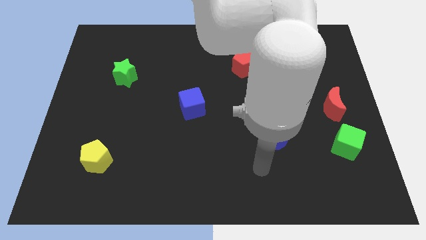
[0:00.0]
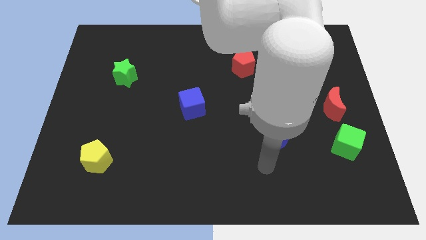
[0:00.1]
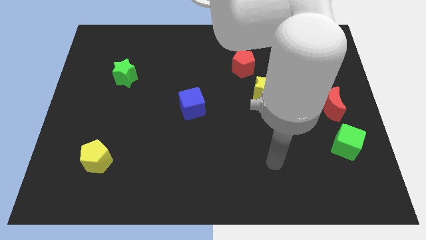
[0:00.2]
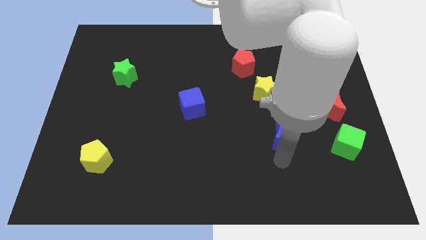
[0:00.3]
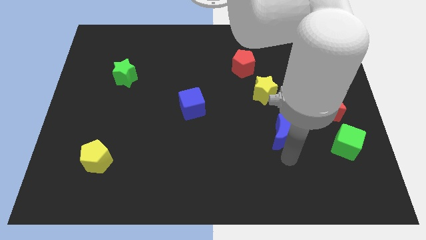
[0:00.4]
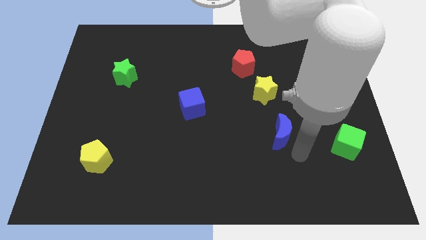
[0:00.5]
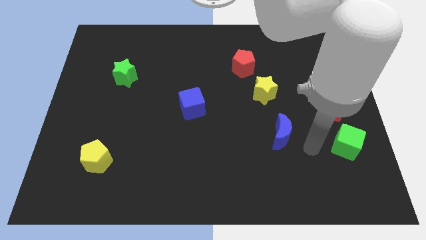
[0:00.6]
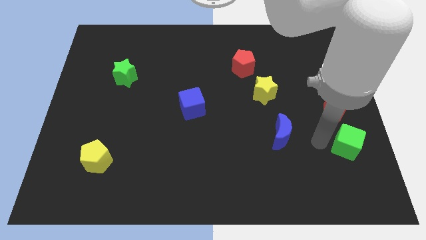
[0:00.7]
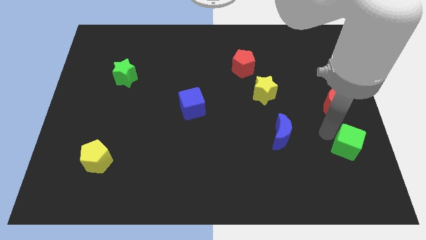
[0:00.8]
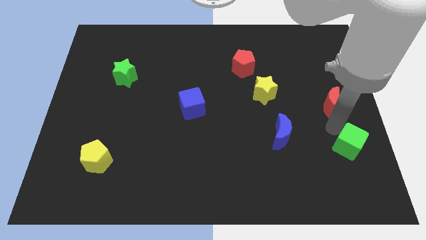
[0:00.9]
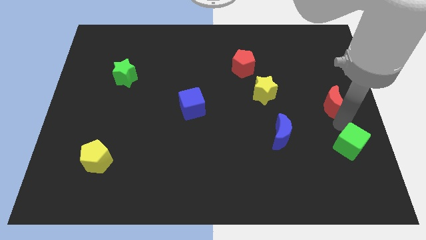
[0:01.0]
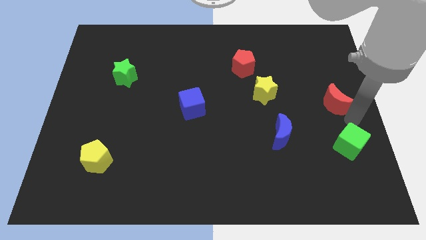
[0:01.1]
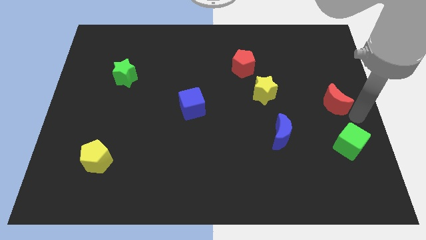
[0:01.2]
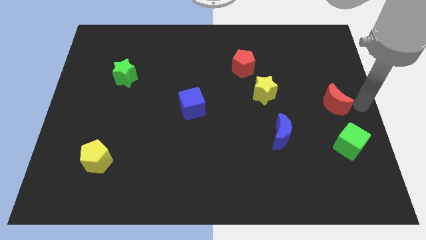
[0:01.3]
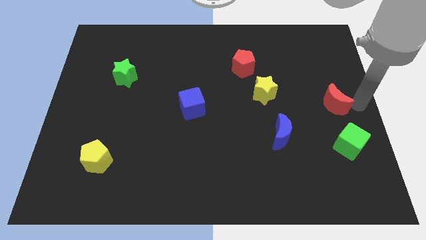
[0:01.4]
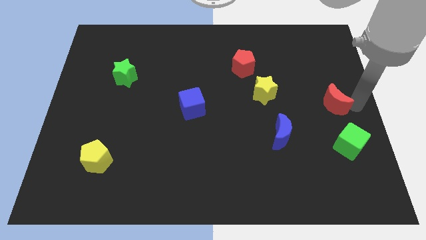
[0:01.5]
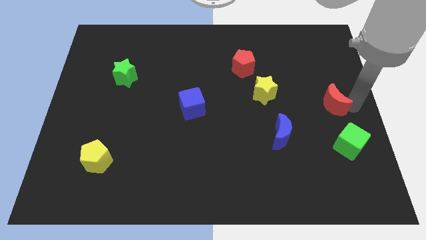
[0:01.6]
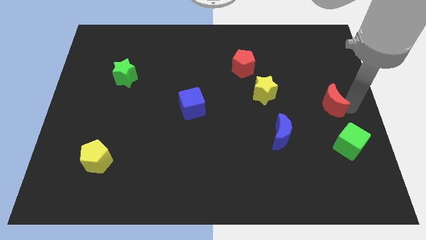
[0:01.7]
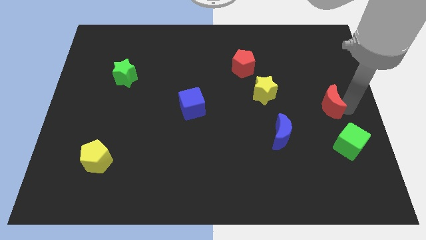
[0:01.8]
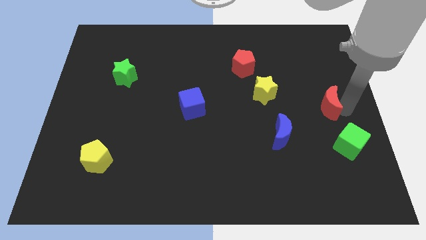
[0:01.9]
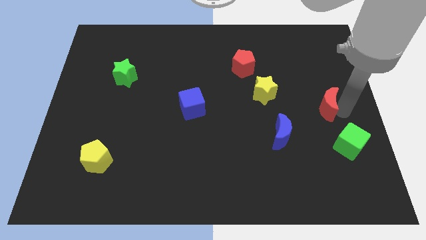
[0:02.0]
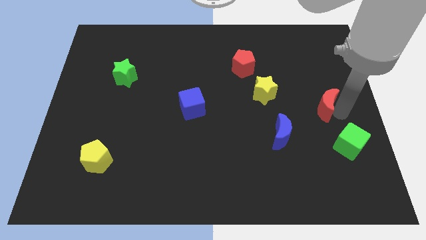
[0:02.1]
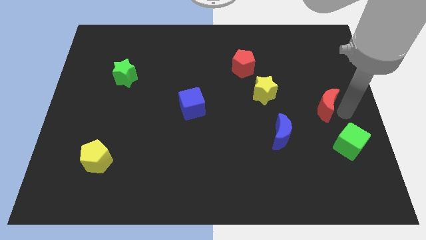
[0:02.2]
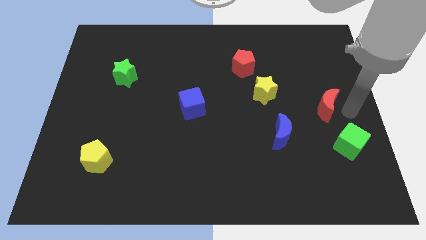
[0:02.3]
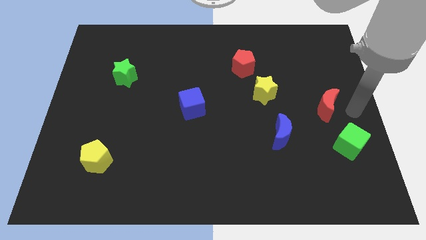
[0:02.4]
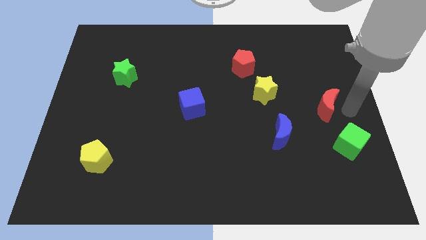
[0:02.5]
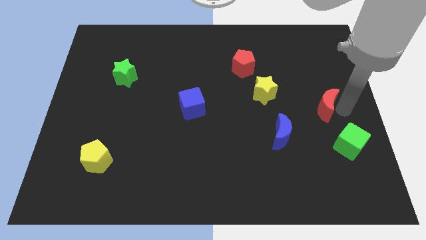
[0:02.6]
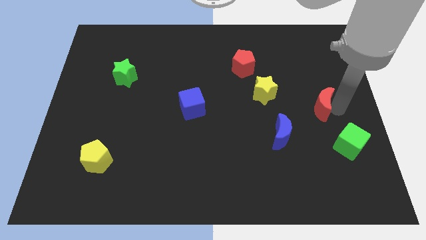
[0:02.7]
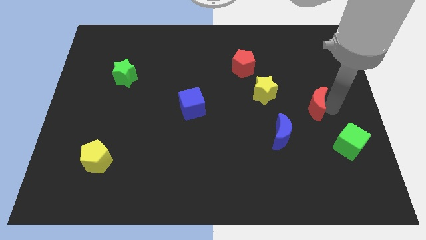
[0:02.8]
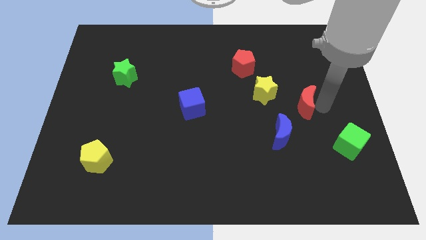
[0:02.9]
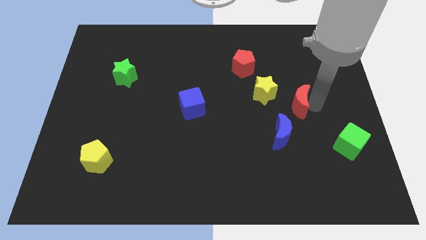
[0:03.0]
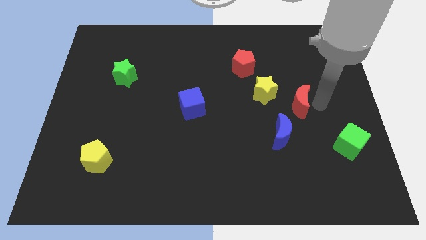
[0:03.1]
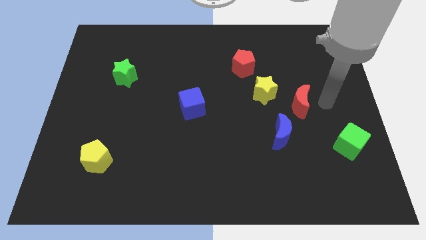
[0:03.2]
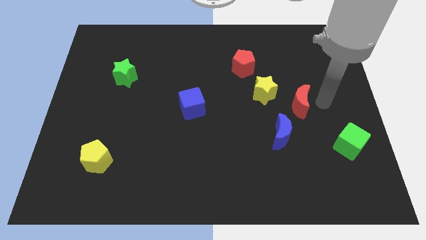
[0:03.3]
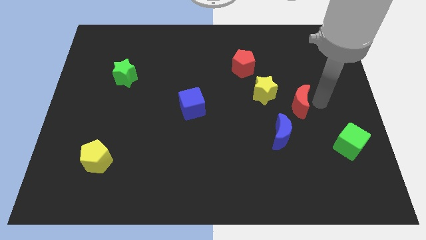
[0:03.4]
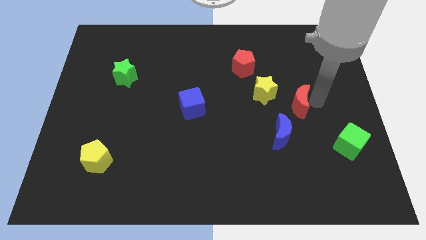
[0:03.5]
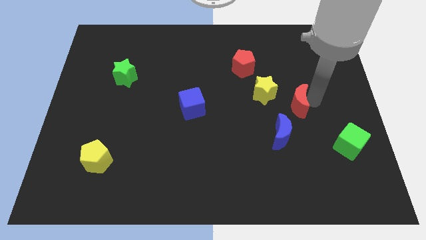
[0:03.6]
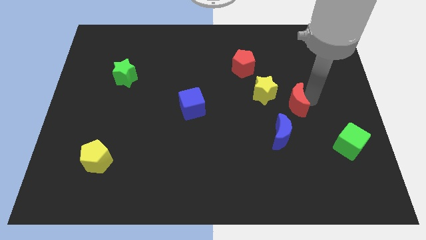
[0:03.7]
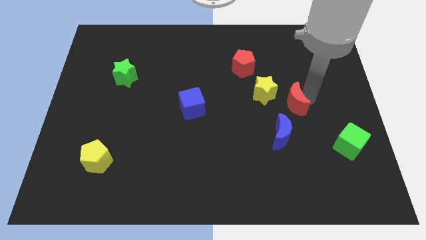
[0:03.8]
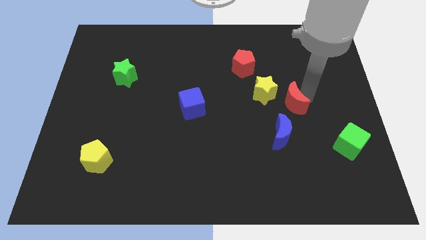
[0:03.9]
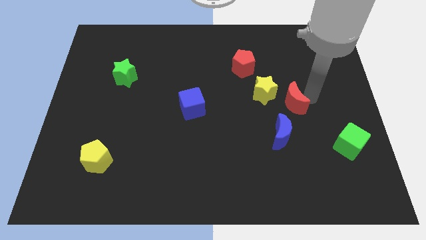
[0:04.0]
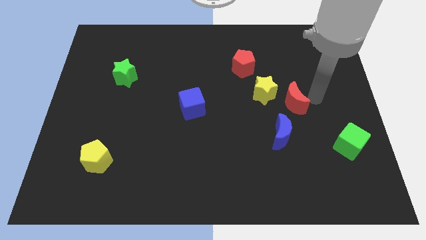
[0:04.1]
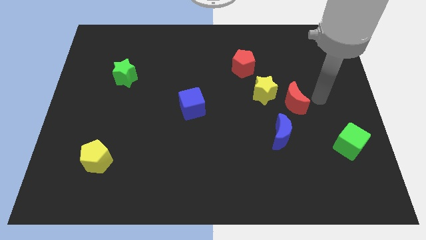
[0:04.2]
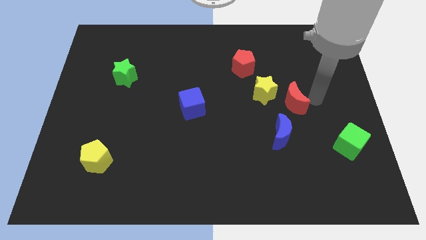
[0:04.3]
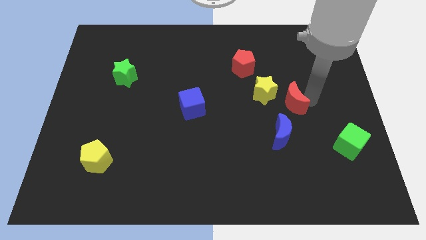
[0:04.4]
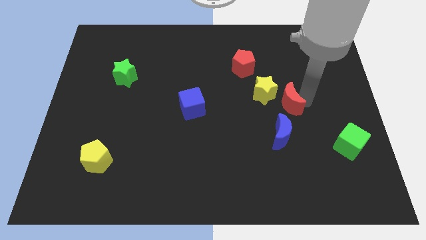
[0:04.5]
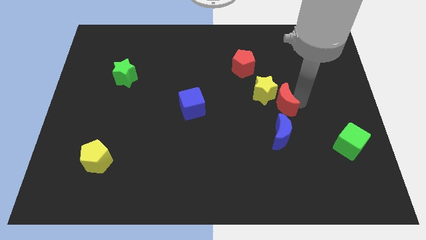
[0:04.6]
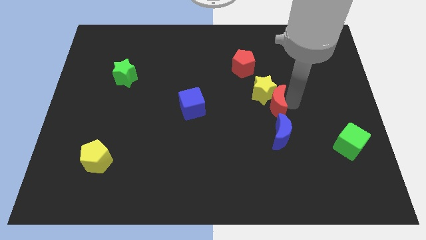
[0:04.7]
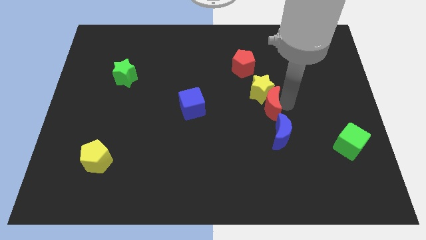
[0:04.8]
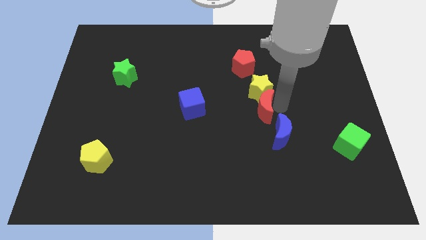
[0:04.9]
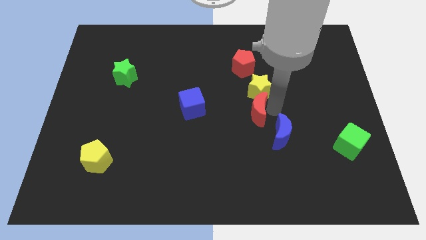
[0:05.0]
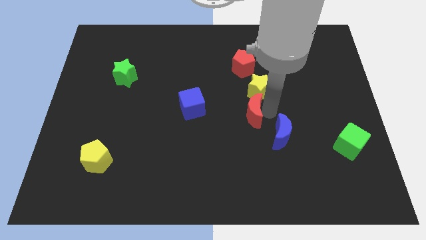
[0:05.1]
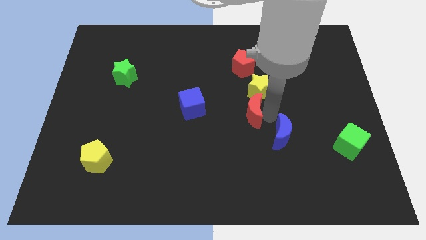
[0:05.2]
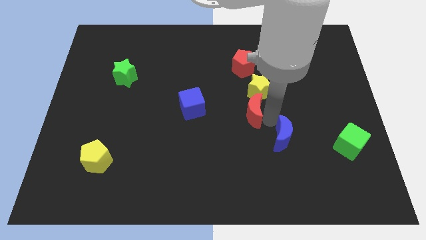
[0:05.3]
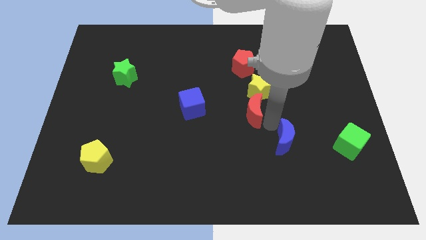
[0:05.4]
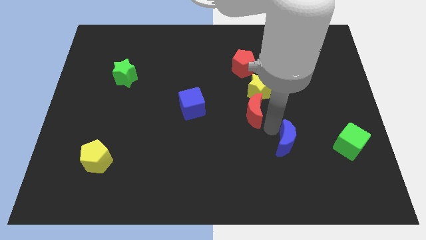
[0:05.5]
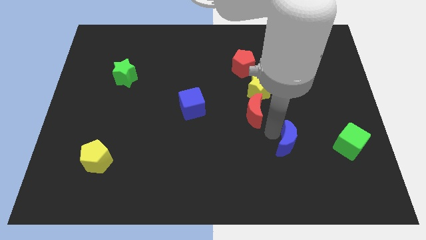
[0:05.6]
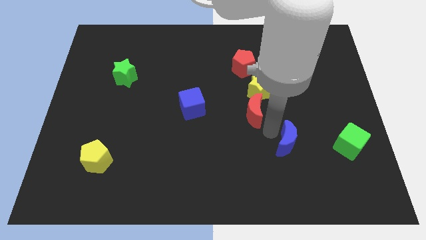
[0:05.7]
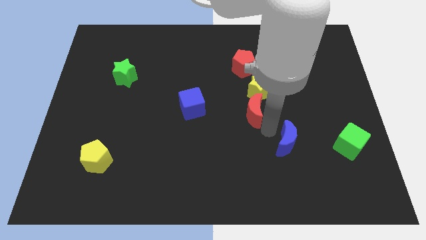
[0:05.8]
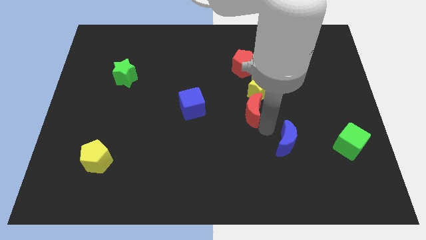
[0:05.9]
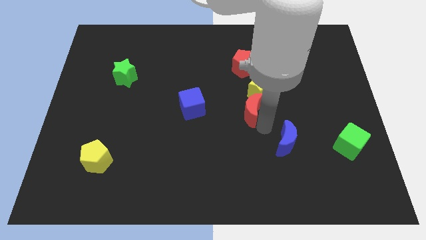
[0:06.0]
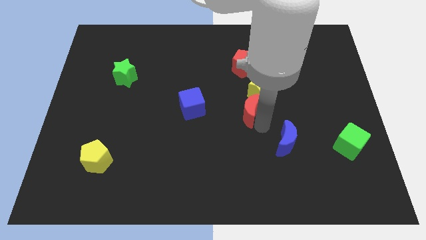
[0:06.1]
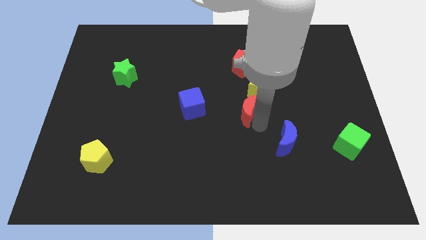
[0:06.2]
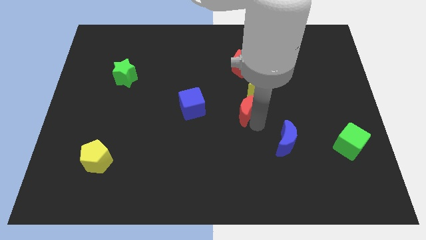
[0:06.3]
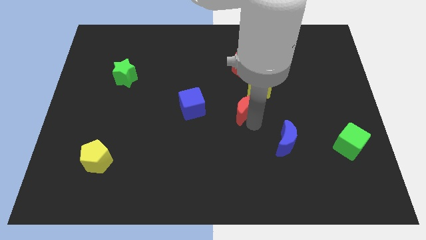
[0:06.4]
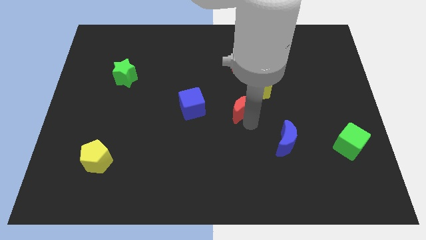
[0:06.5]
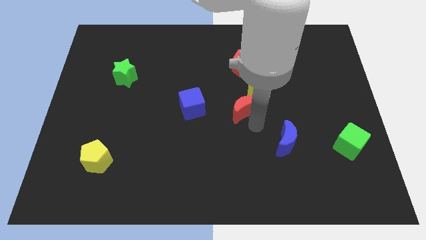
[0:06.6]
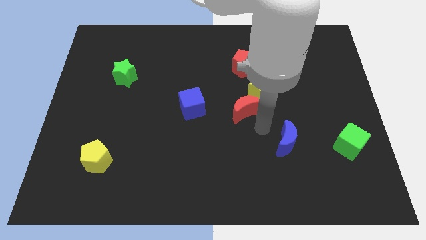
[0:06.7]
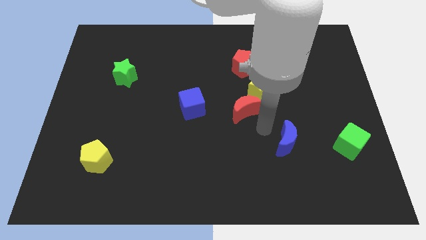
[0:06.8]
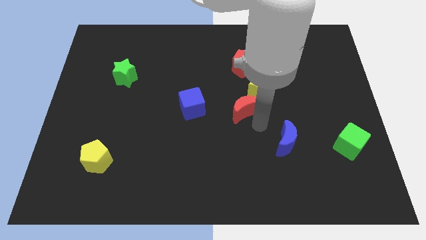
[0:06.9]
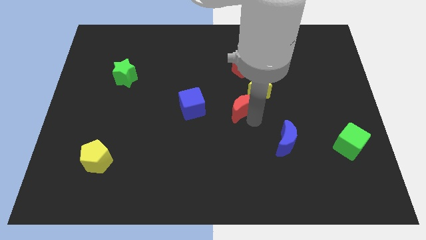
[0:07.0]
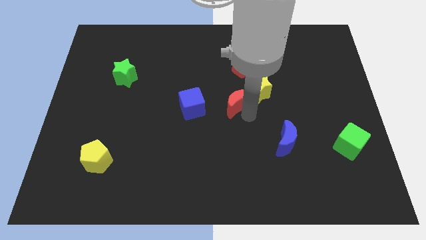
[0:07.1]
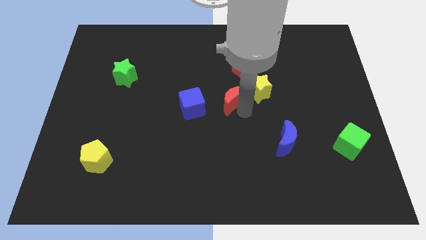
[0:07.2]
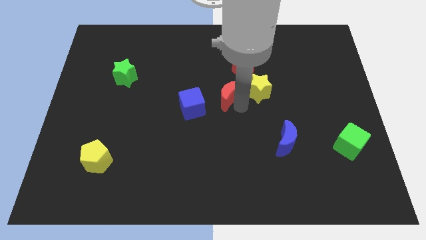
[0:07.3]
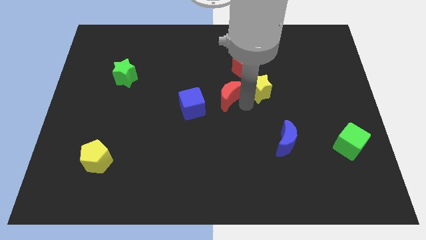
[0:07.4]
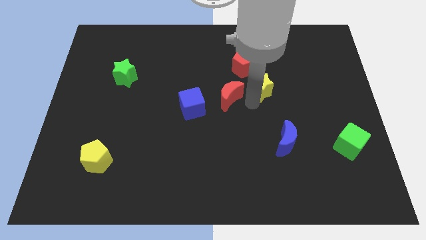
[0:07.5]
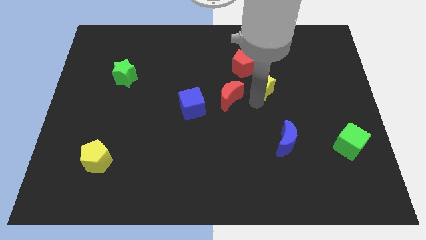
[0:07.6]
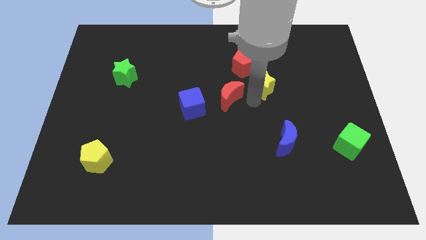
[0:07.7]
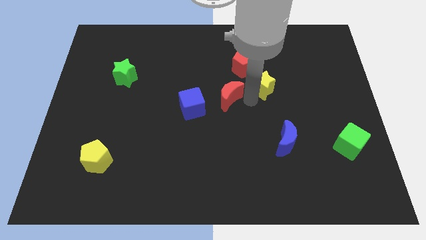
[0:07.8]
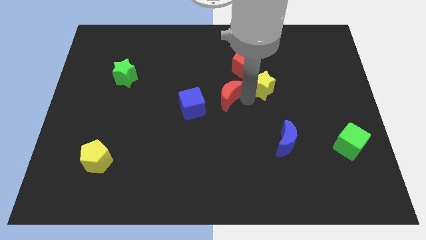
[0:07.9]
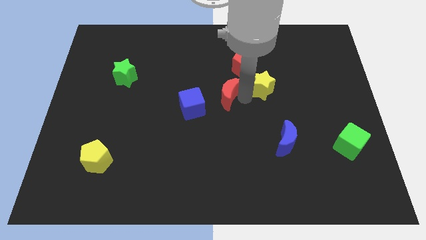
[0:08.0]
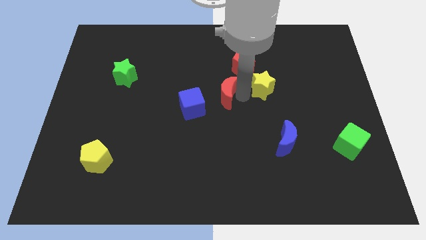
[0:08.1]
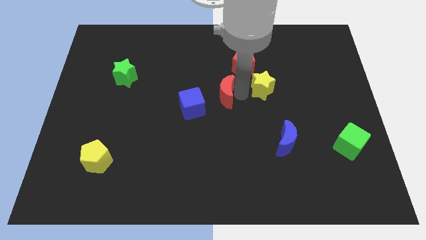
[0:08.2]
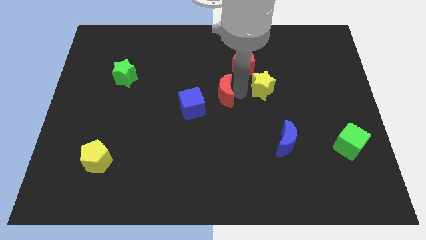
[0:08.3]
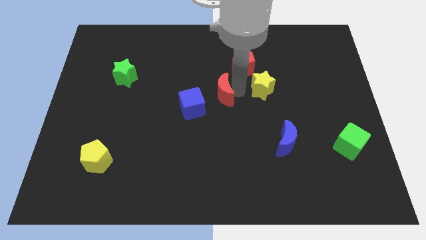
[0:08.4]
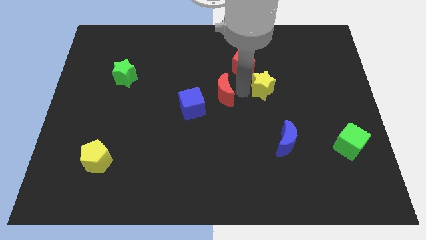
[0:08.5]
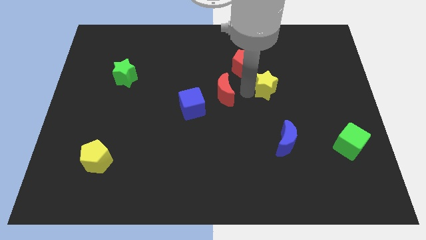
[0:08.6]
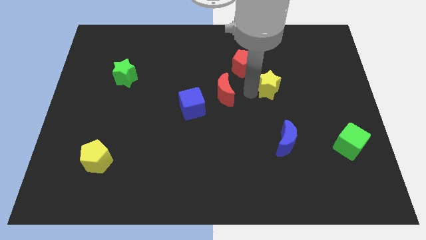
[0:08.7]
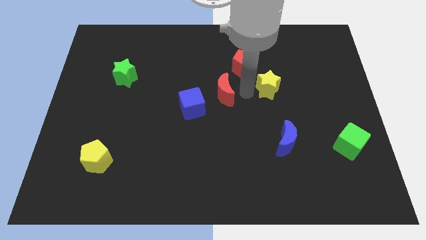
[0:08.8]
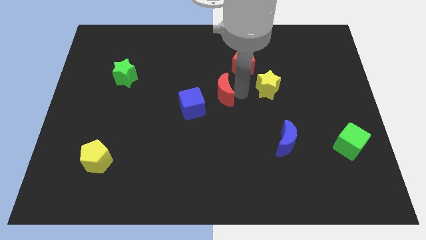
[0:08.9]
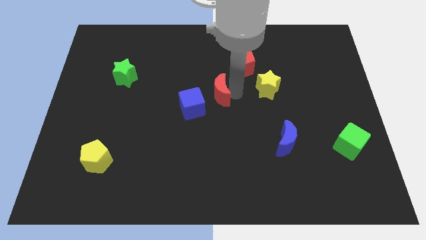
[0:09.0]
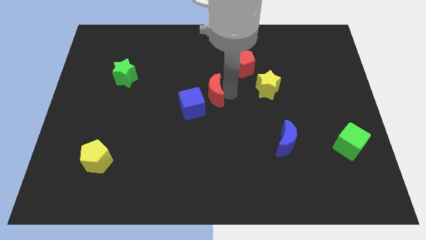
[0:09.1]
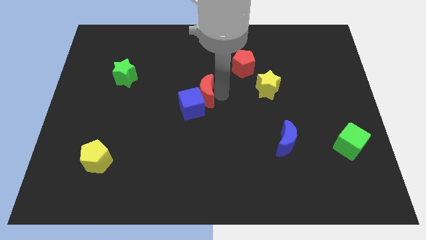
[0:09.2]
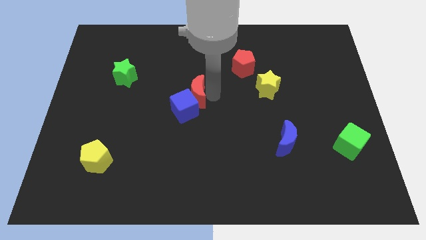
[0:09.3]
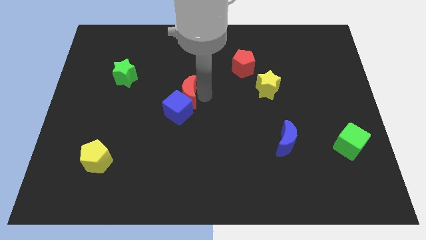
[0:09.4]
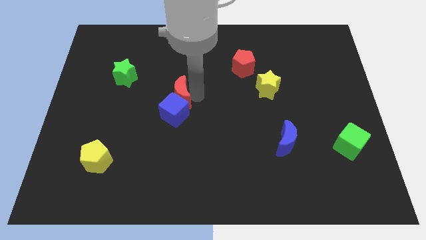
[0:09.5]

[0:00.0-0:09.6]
put the red moon diagonally up and to the left of the blue cube
